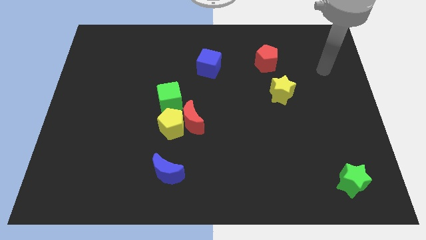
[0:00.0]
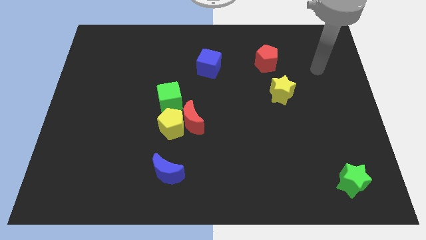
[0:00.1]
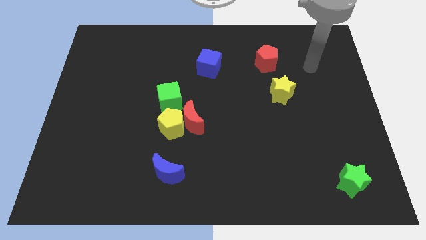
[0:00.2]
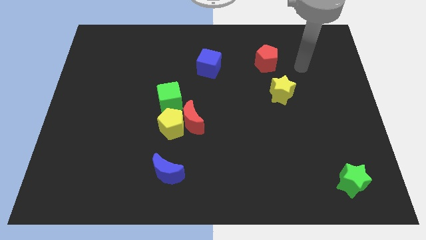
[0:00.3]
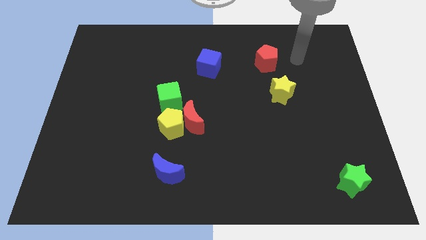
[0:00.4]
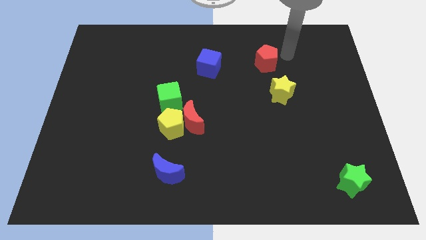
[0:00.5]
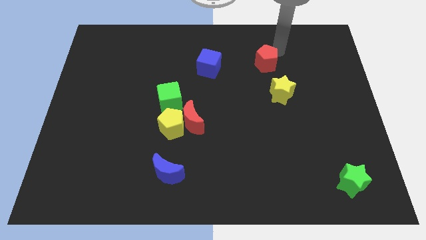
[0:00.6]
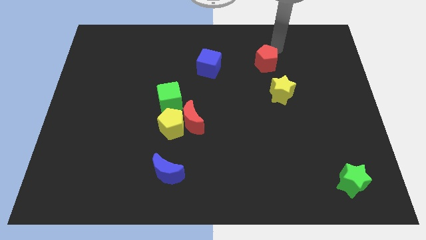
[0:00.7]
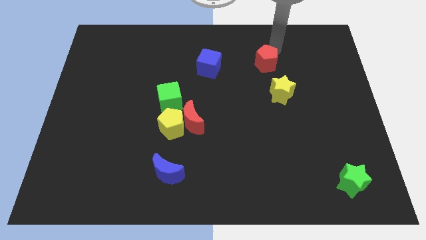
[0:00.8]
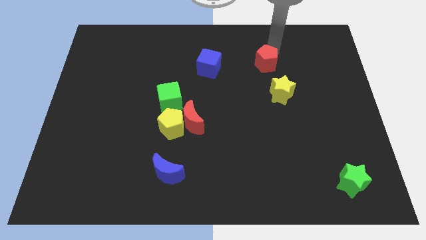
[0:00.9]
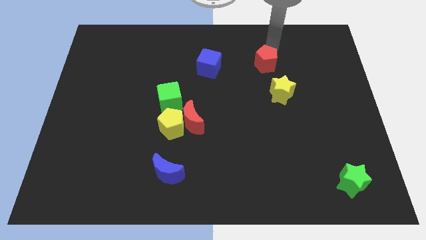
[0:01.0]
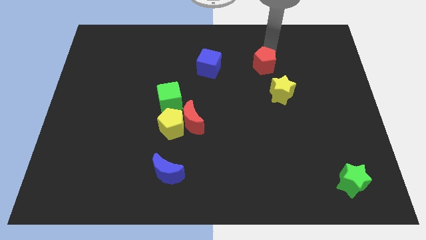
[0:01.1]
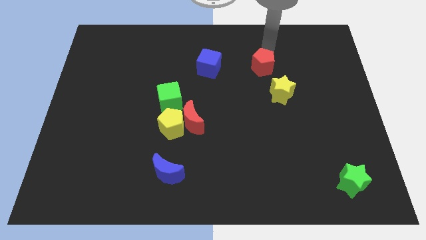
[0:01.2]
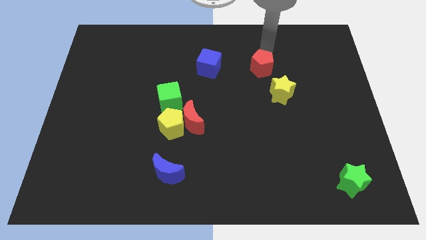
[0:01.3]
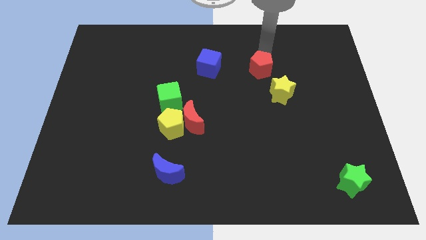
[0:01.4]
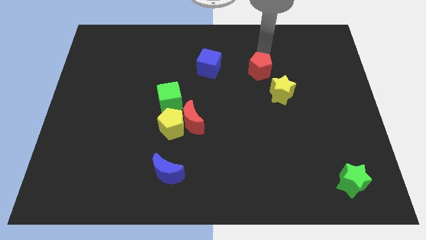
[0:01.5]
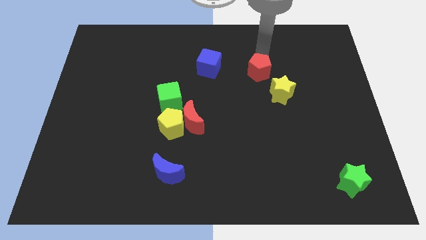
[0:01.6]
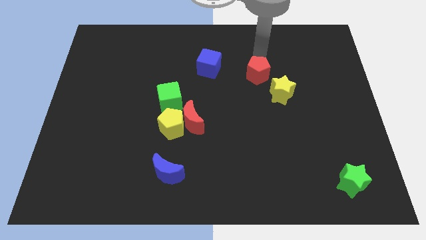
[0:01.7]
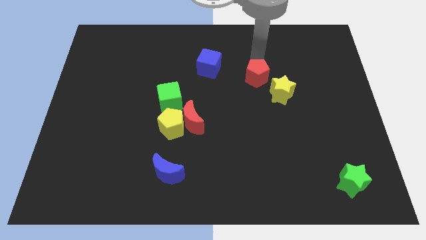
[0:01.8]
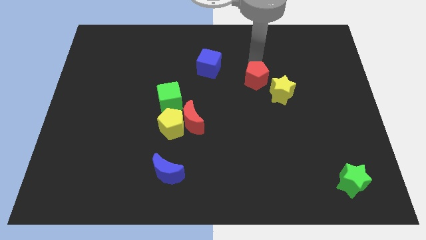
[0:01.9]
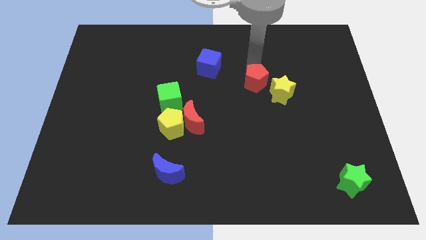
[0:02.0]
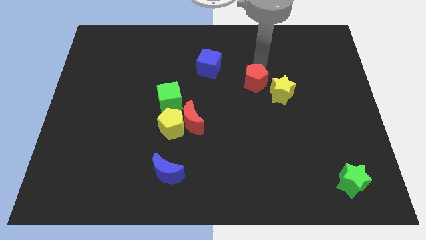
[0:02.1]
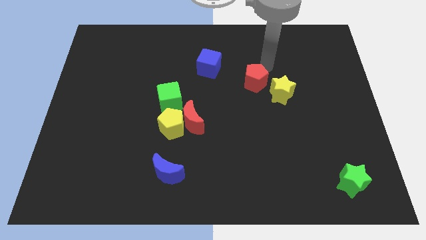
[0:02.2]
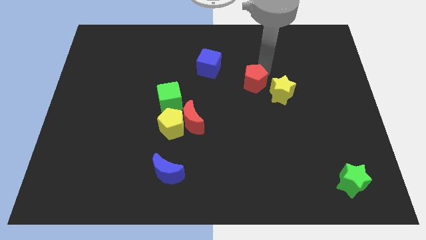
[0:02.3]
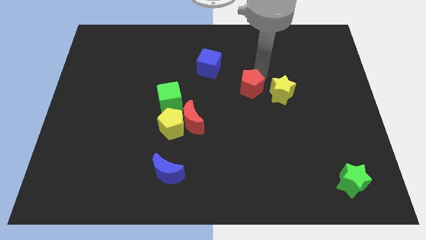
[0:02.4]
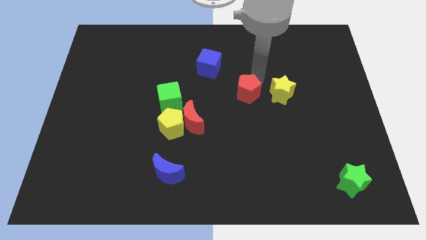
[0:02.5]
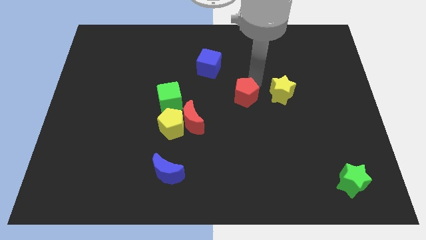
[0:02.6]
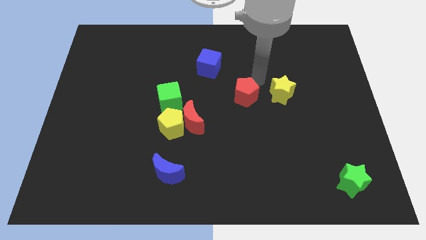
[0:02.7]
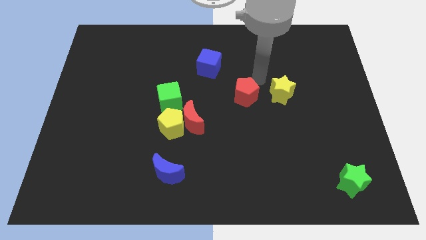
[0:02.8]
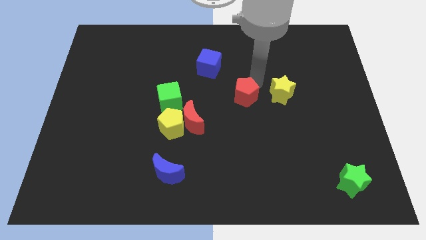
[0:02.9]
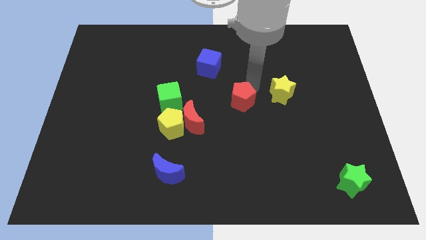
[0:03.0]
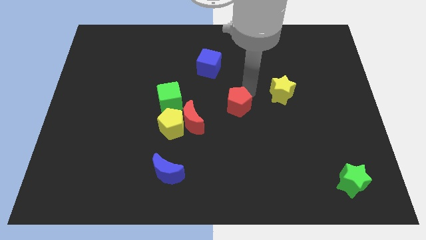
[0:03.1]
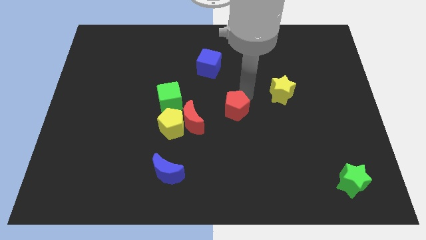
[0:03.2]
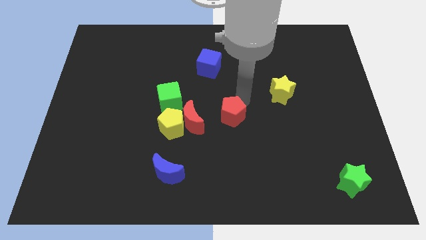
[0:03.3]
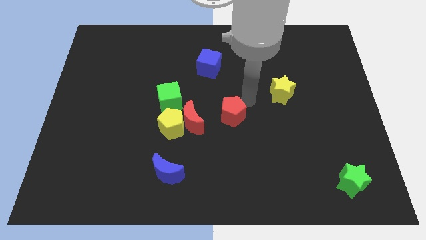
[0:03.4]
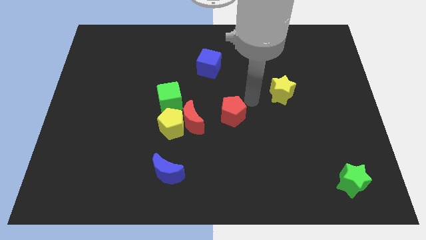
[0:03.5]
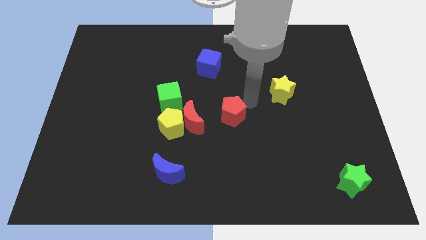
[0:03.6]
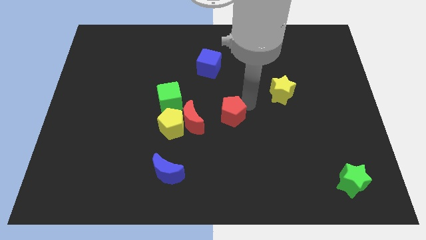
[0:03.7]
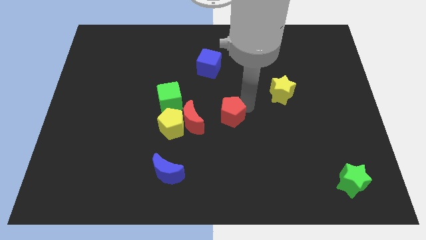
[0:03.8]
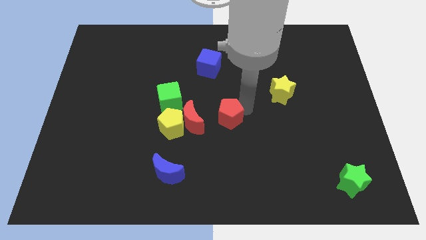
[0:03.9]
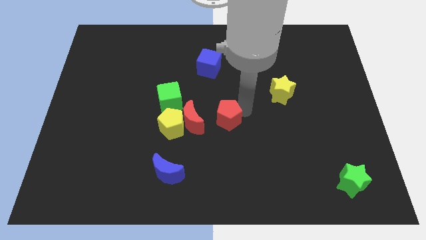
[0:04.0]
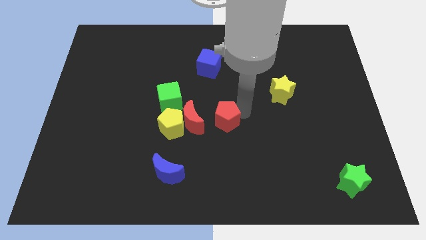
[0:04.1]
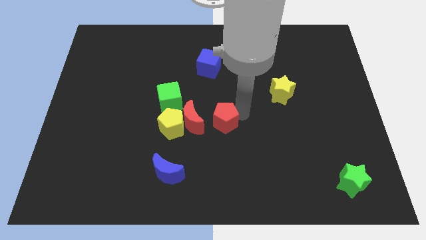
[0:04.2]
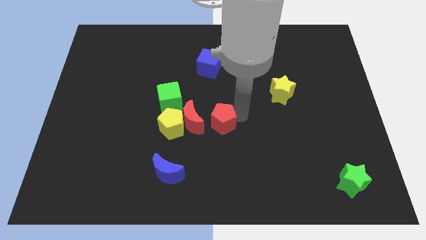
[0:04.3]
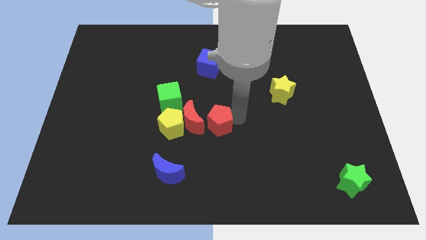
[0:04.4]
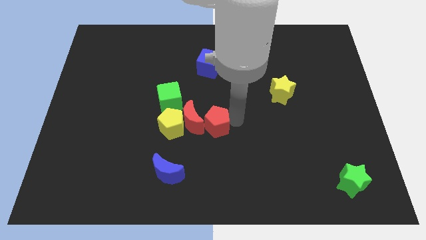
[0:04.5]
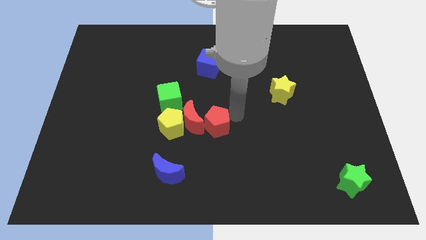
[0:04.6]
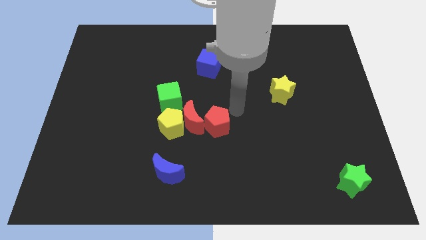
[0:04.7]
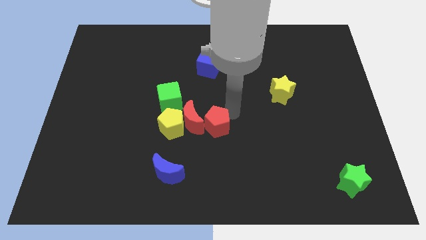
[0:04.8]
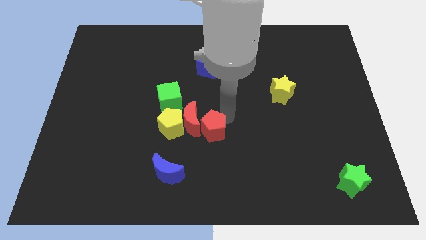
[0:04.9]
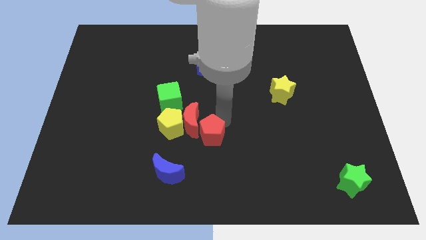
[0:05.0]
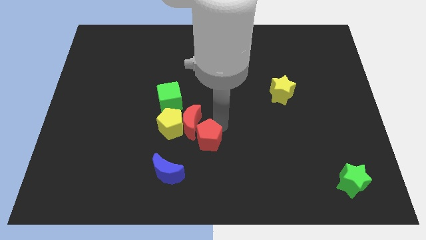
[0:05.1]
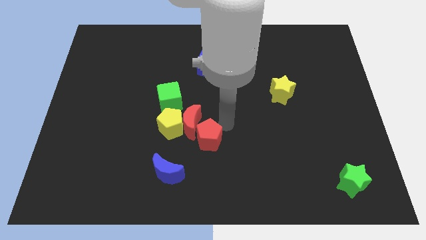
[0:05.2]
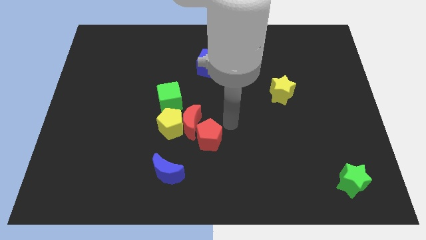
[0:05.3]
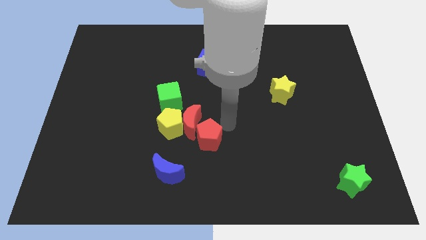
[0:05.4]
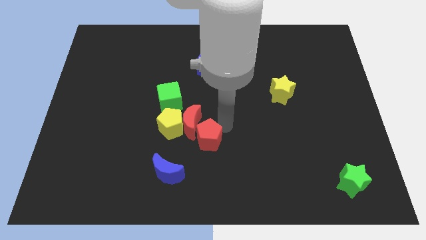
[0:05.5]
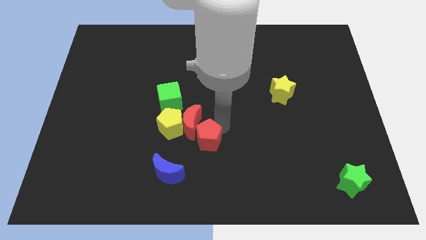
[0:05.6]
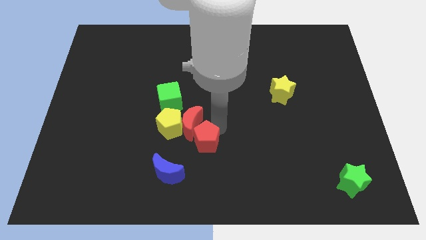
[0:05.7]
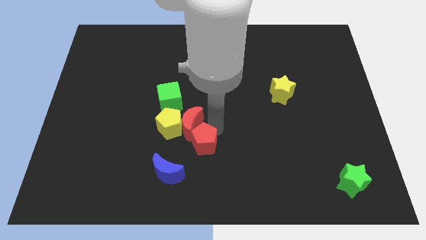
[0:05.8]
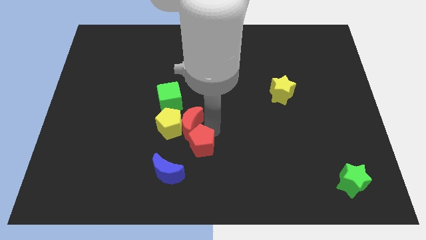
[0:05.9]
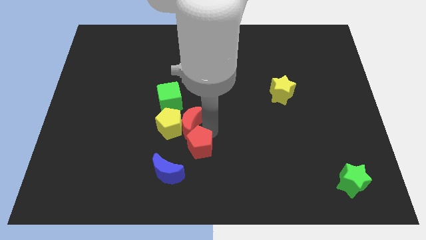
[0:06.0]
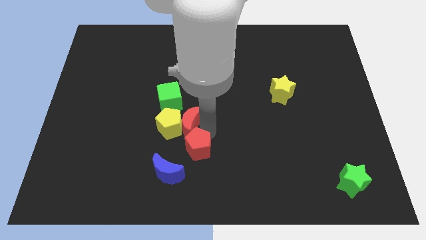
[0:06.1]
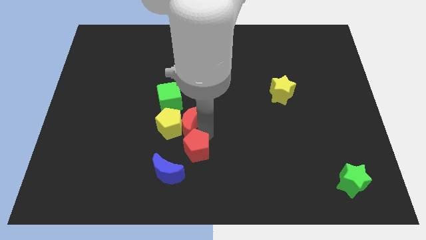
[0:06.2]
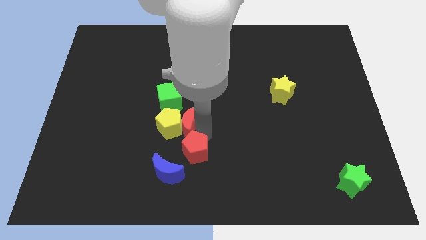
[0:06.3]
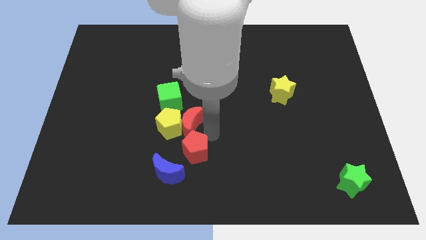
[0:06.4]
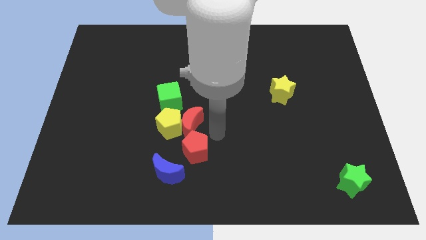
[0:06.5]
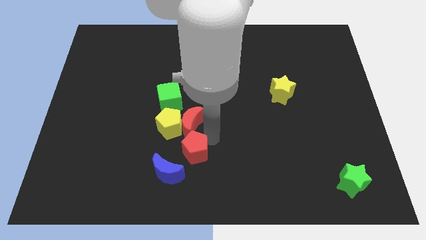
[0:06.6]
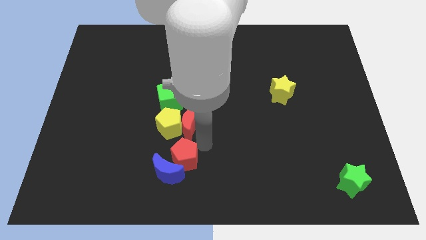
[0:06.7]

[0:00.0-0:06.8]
push the red pentagon to the blue moon

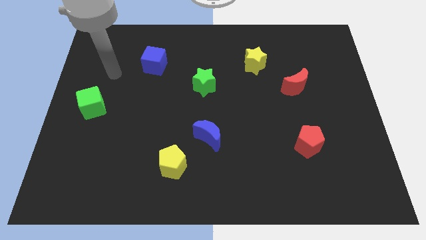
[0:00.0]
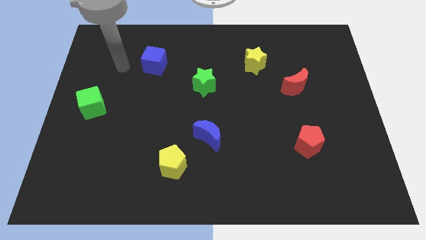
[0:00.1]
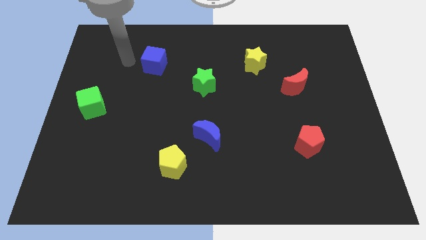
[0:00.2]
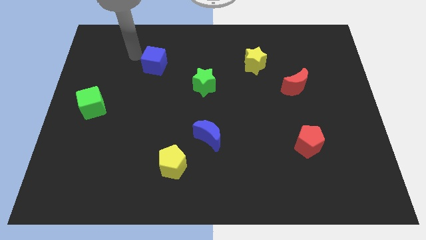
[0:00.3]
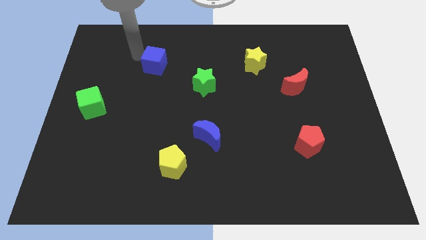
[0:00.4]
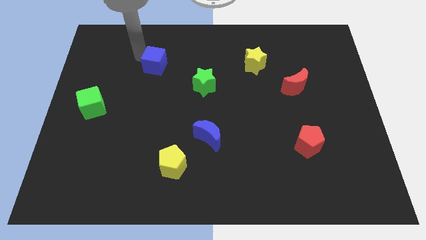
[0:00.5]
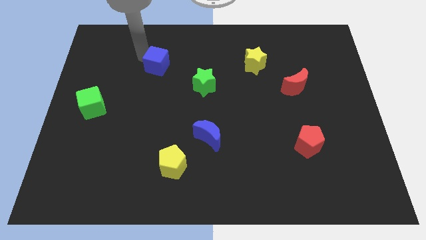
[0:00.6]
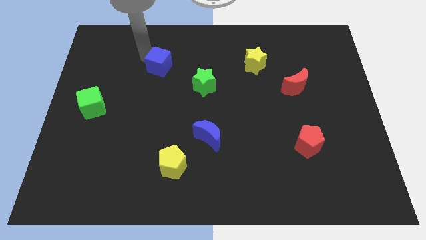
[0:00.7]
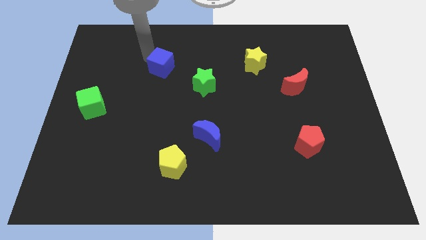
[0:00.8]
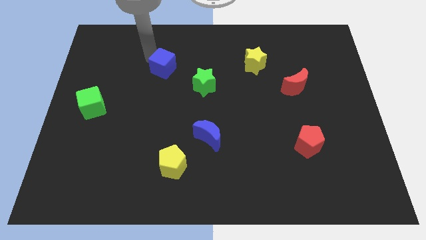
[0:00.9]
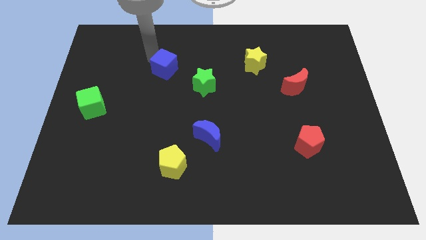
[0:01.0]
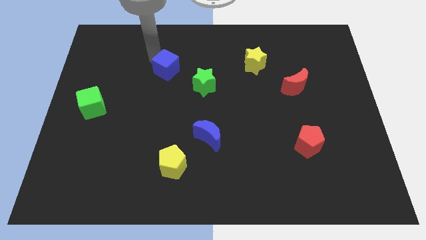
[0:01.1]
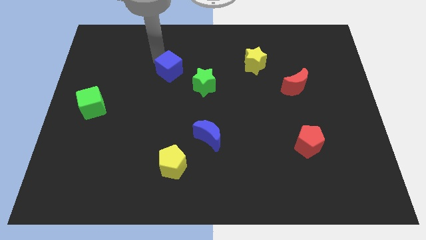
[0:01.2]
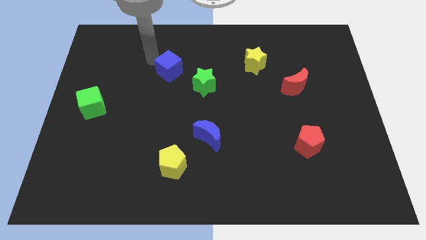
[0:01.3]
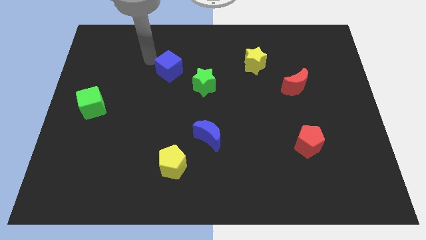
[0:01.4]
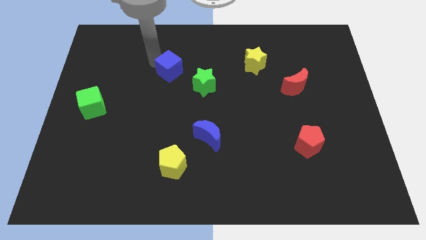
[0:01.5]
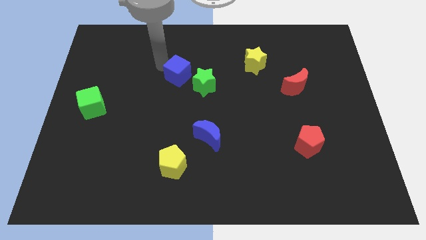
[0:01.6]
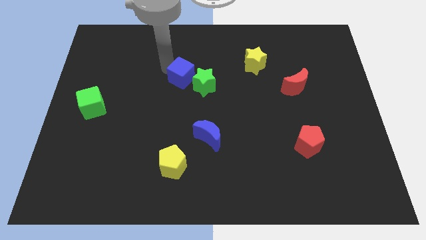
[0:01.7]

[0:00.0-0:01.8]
put the blue cube to the green star

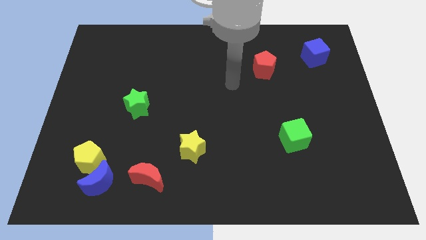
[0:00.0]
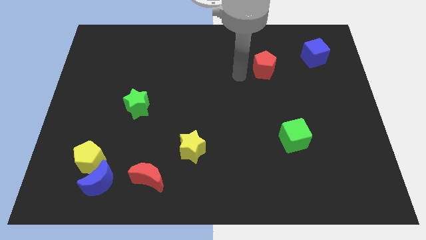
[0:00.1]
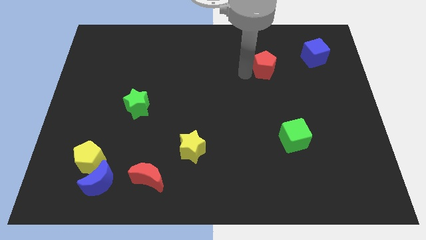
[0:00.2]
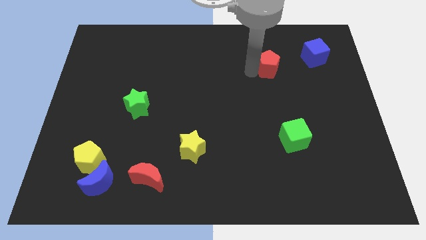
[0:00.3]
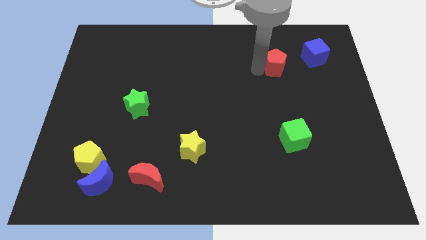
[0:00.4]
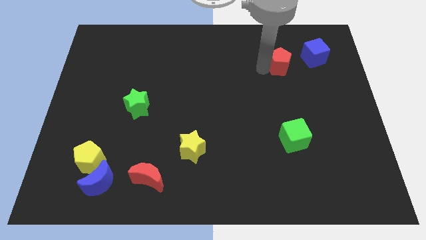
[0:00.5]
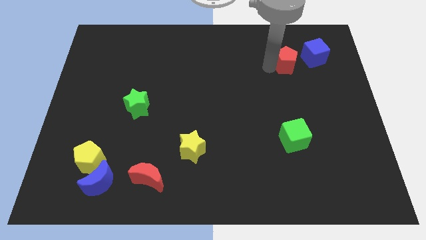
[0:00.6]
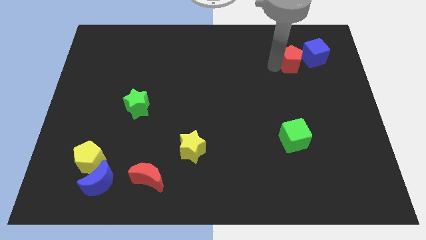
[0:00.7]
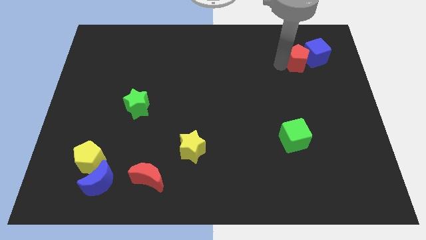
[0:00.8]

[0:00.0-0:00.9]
put the red pentagon to the blue cube
